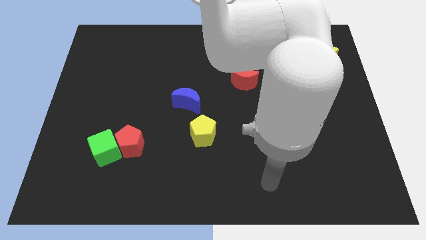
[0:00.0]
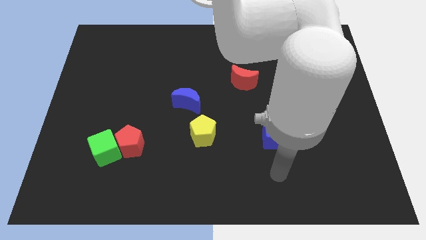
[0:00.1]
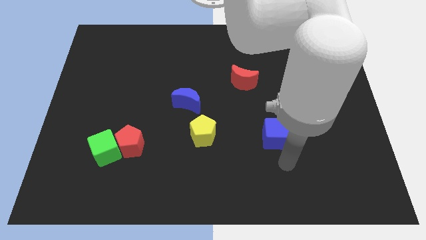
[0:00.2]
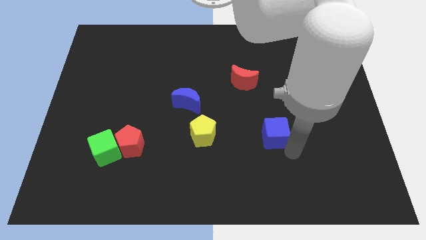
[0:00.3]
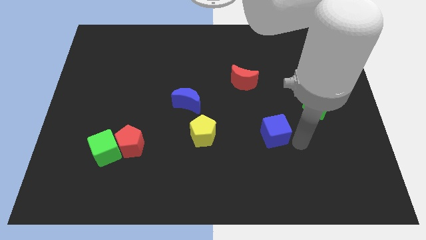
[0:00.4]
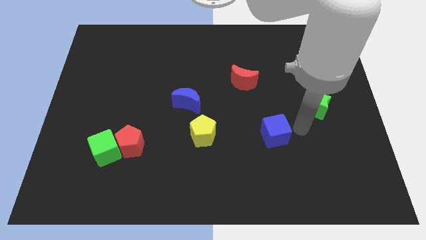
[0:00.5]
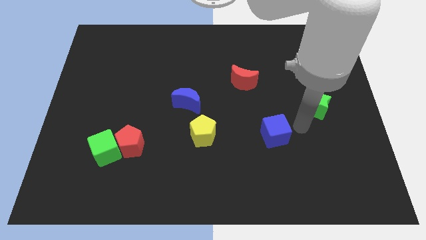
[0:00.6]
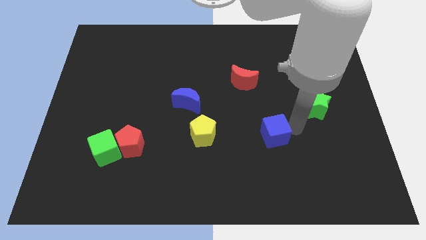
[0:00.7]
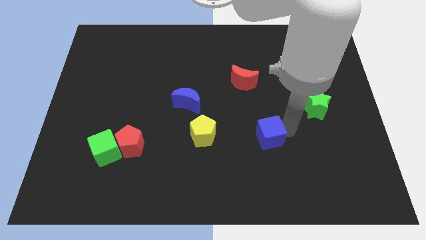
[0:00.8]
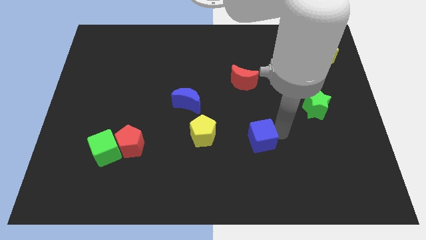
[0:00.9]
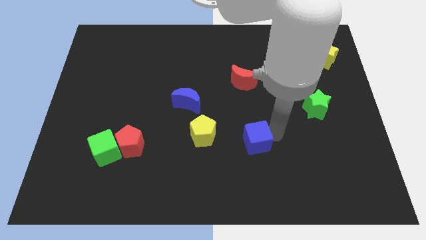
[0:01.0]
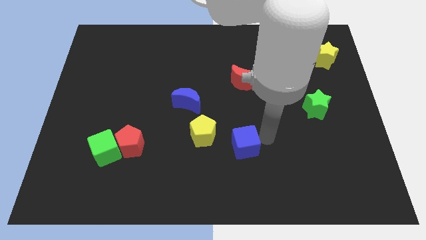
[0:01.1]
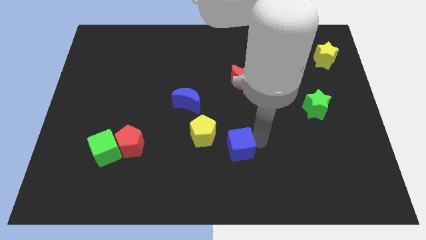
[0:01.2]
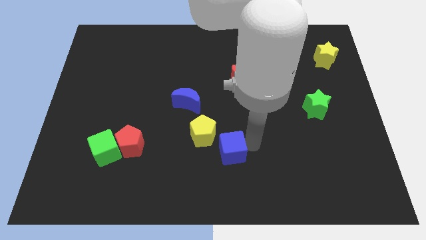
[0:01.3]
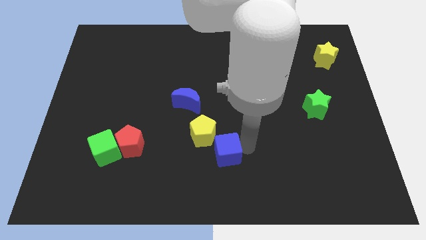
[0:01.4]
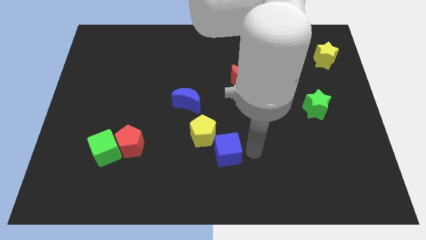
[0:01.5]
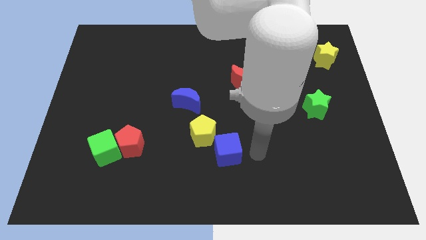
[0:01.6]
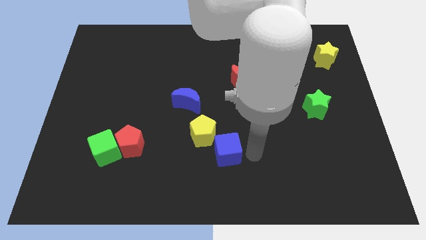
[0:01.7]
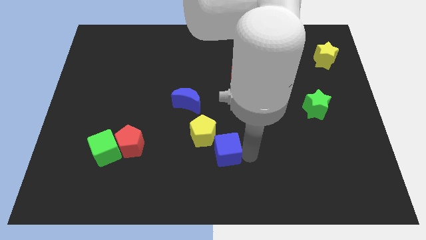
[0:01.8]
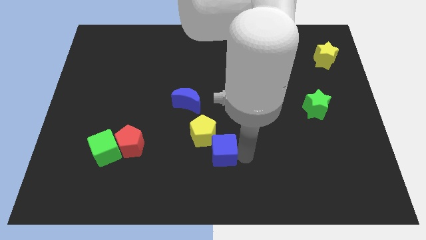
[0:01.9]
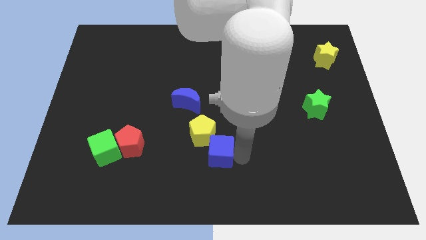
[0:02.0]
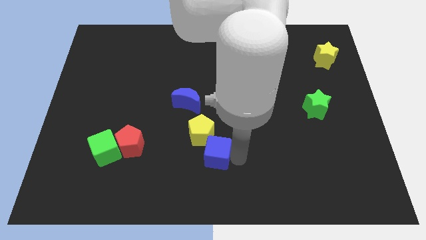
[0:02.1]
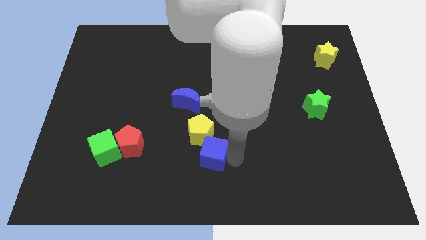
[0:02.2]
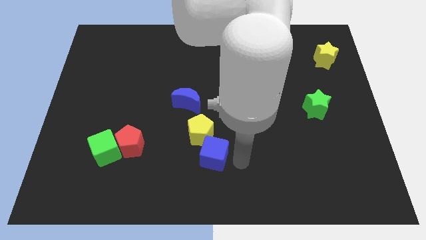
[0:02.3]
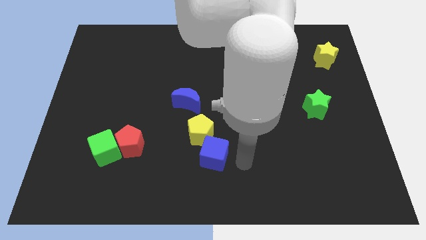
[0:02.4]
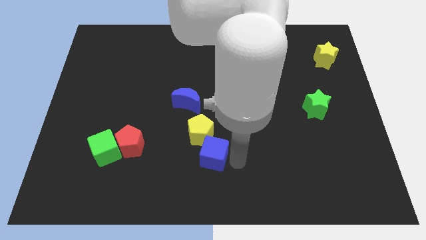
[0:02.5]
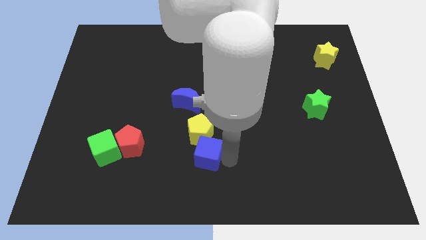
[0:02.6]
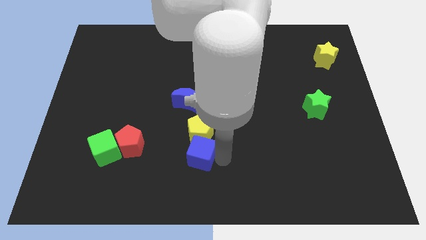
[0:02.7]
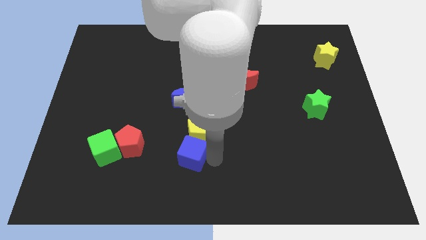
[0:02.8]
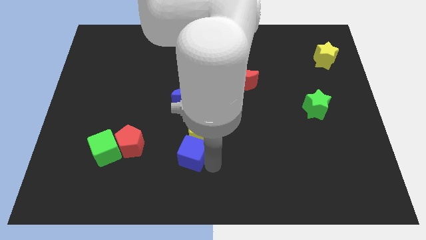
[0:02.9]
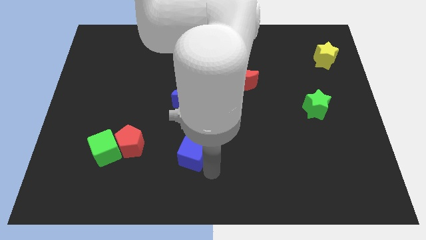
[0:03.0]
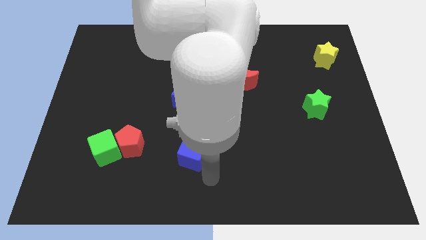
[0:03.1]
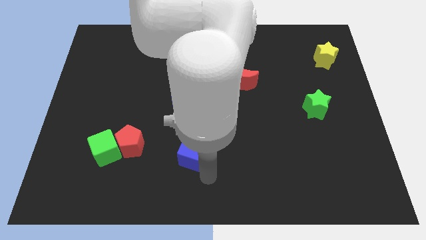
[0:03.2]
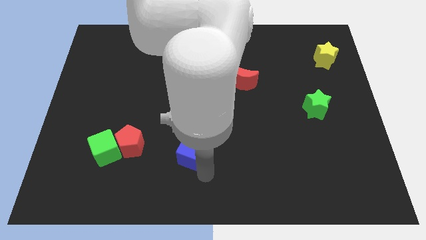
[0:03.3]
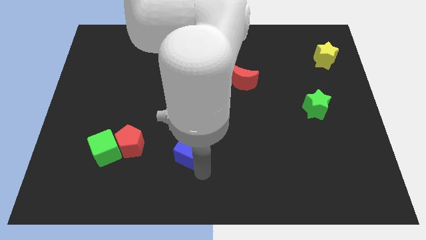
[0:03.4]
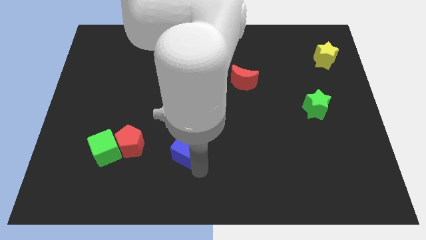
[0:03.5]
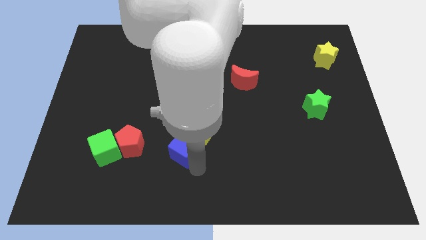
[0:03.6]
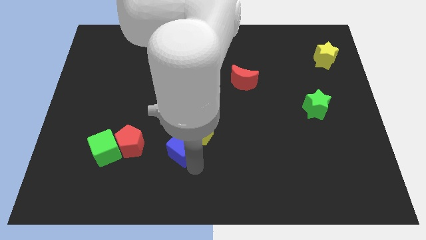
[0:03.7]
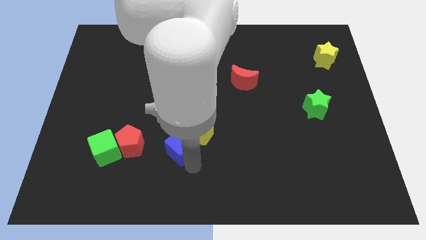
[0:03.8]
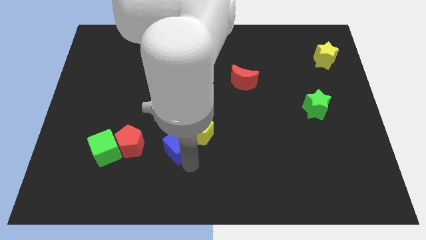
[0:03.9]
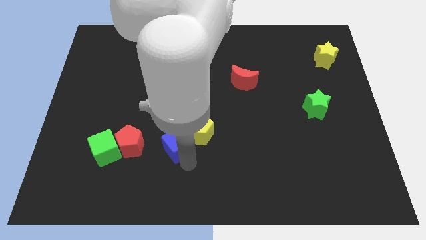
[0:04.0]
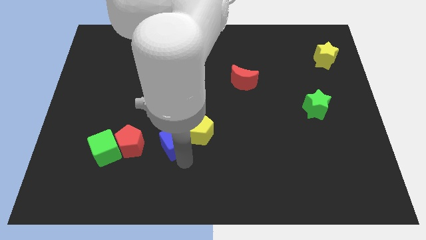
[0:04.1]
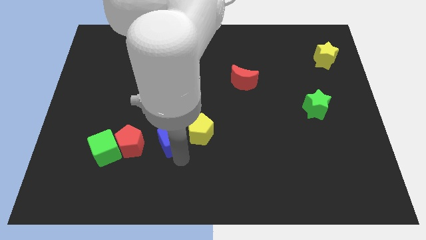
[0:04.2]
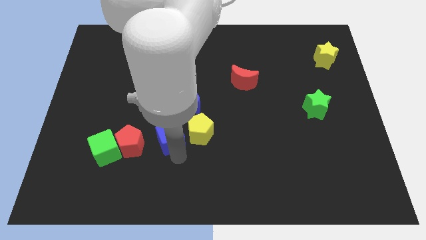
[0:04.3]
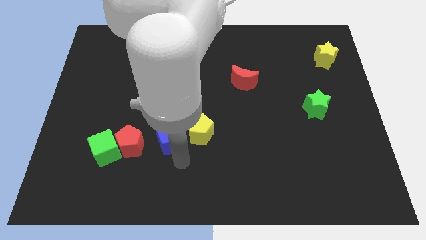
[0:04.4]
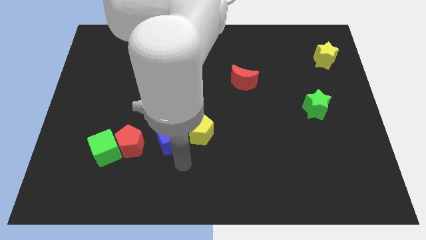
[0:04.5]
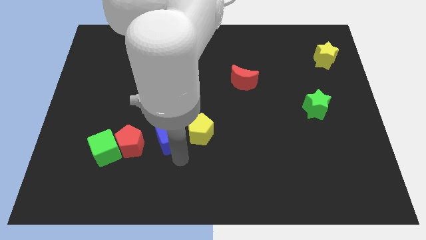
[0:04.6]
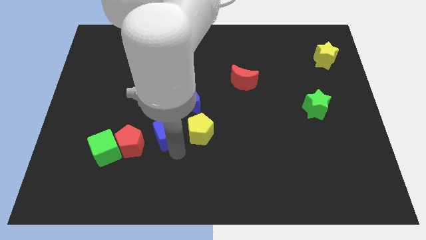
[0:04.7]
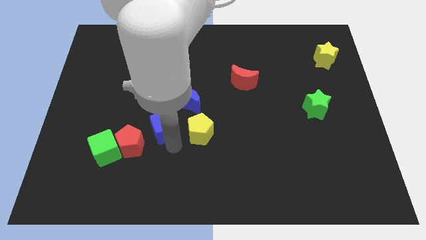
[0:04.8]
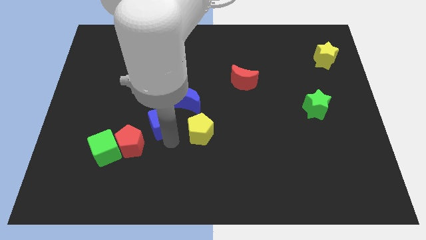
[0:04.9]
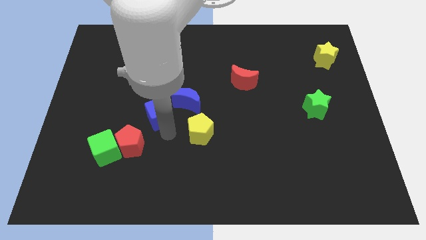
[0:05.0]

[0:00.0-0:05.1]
slide the blue cube just left of the blue moon

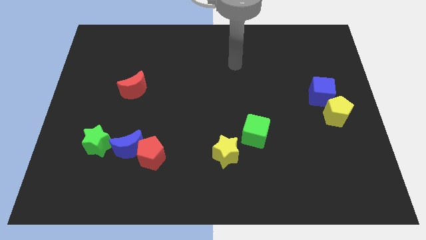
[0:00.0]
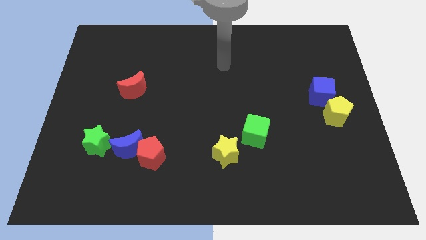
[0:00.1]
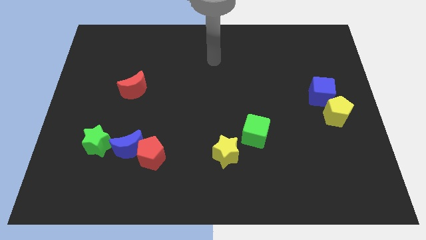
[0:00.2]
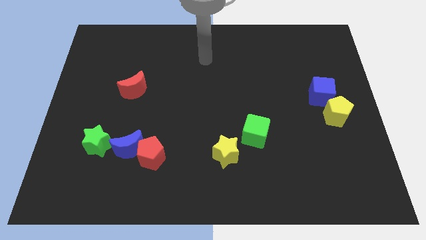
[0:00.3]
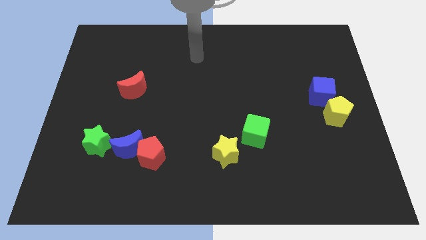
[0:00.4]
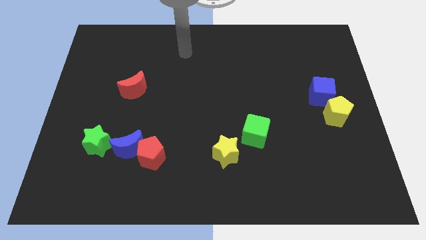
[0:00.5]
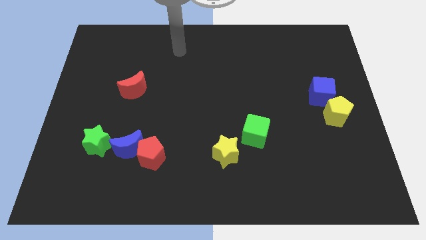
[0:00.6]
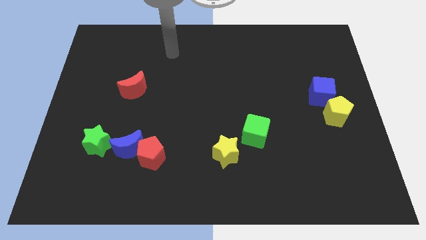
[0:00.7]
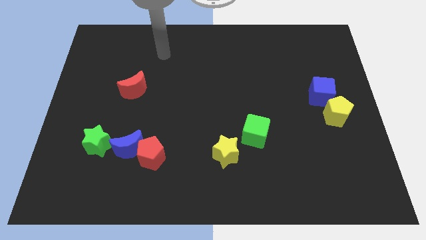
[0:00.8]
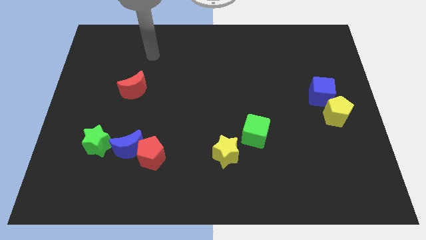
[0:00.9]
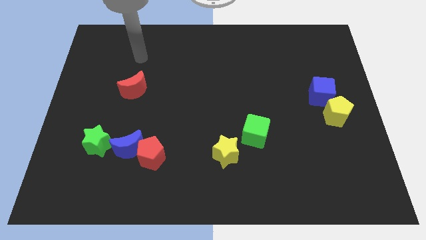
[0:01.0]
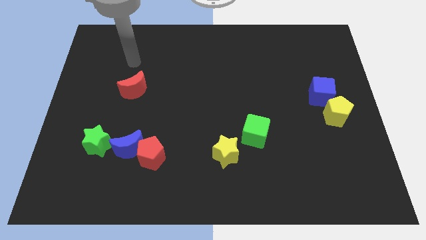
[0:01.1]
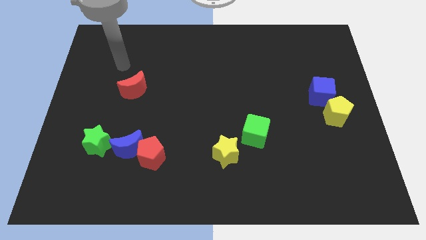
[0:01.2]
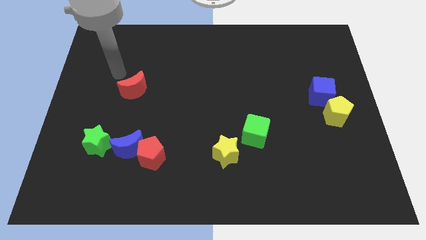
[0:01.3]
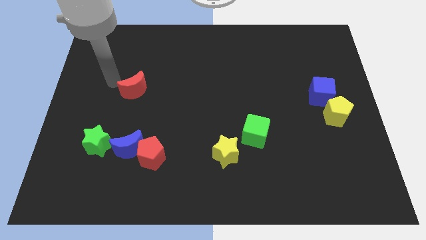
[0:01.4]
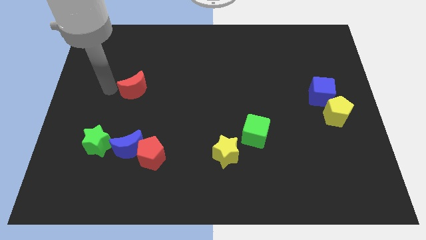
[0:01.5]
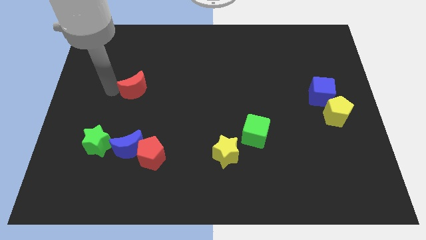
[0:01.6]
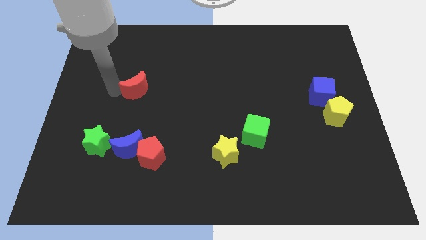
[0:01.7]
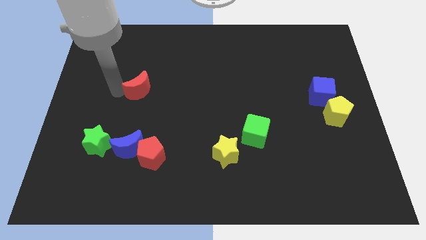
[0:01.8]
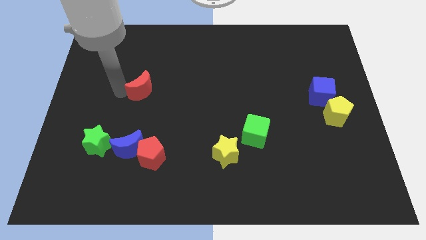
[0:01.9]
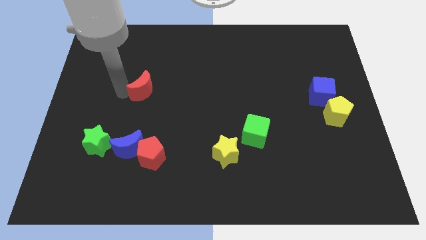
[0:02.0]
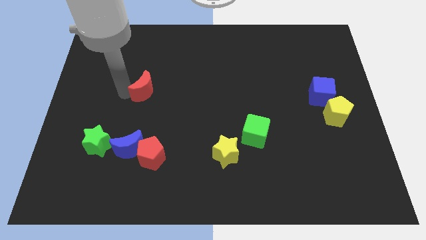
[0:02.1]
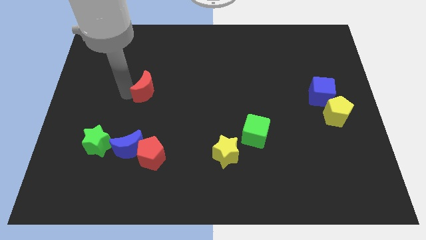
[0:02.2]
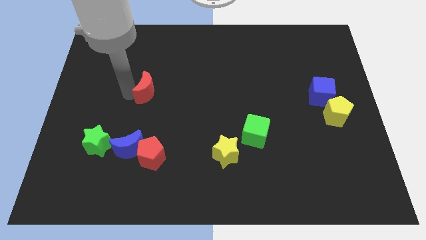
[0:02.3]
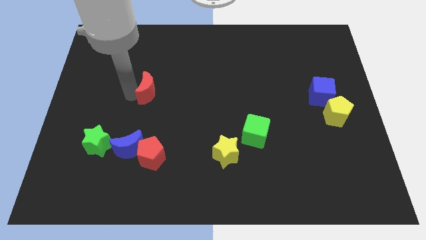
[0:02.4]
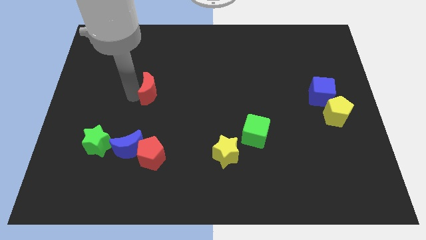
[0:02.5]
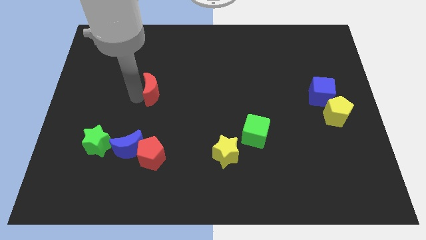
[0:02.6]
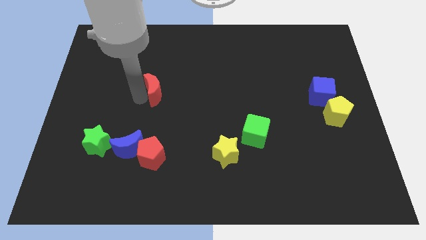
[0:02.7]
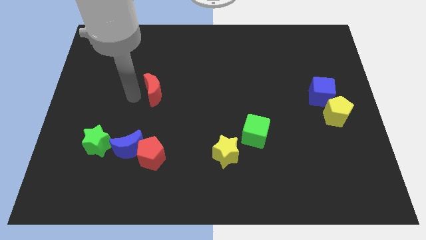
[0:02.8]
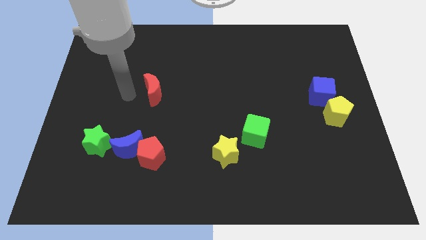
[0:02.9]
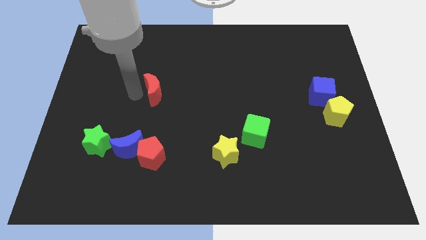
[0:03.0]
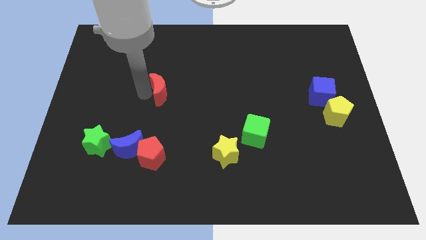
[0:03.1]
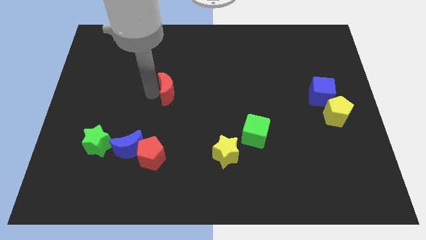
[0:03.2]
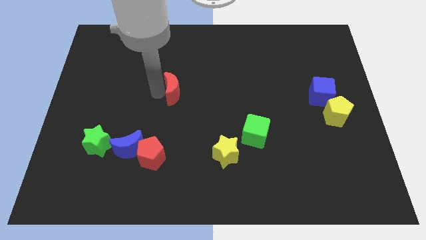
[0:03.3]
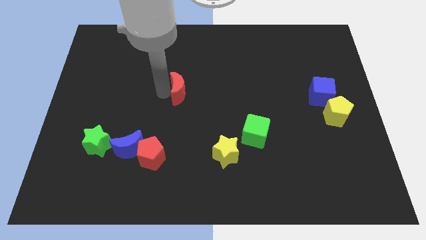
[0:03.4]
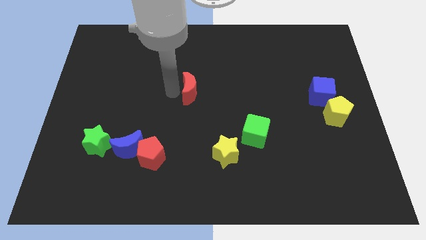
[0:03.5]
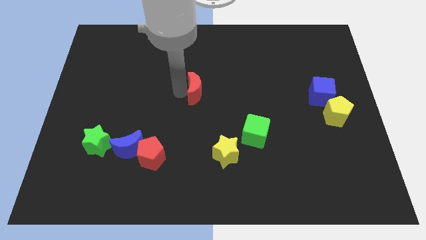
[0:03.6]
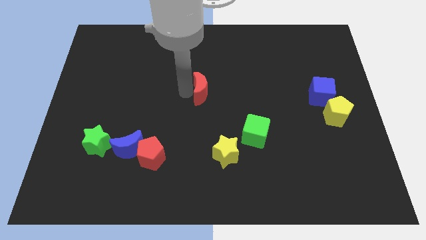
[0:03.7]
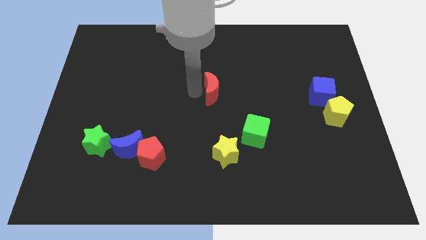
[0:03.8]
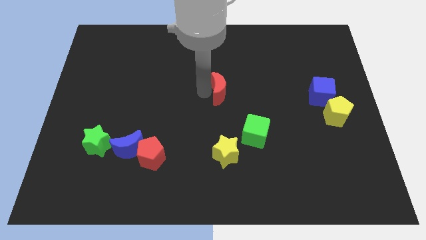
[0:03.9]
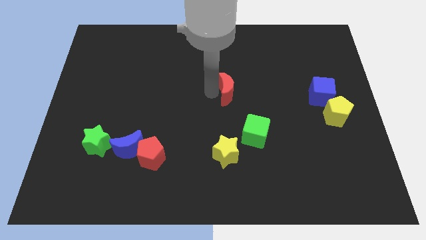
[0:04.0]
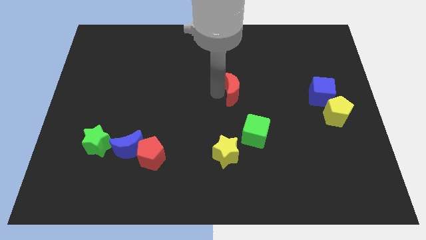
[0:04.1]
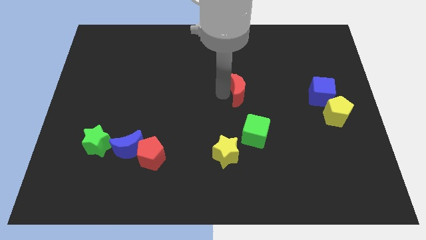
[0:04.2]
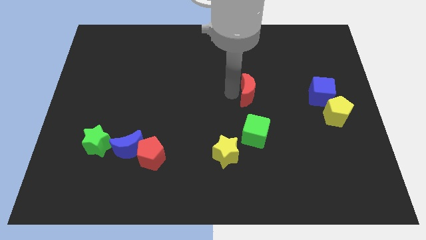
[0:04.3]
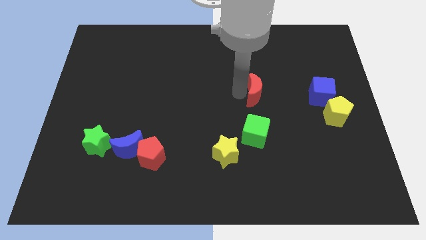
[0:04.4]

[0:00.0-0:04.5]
push the red moon just left of the blue cube
